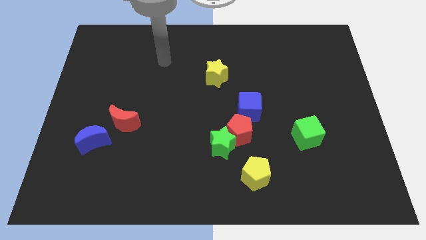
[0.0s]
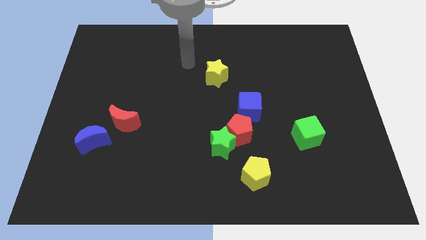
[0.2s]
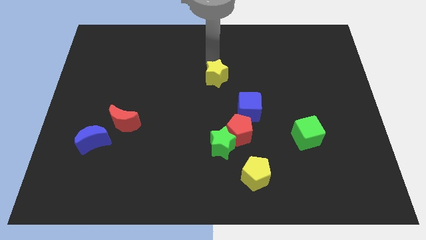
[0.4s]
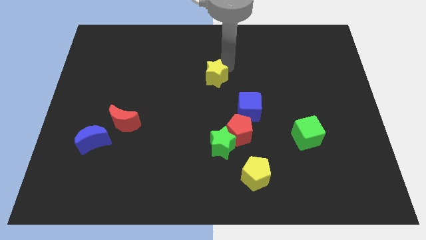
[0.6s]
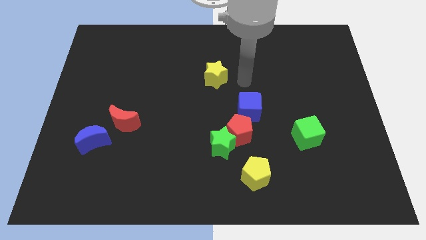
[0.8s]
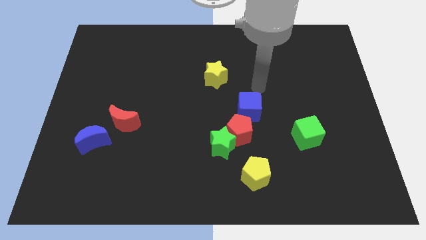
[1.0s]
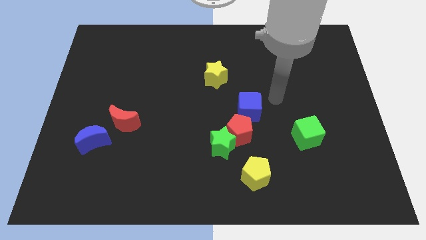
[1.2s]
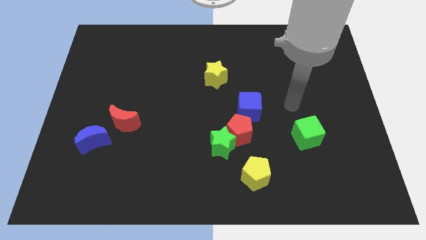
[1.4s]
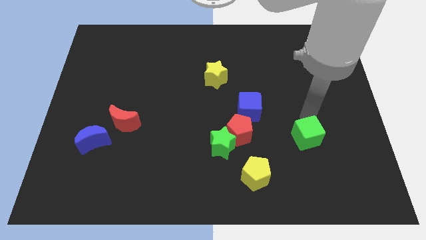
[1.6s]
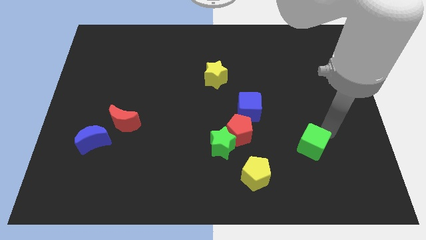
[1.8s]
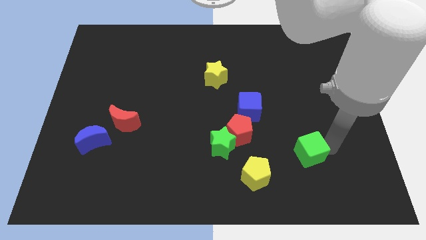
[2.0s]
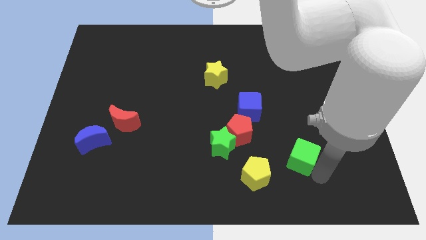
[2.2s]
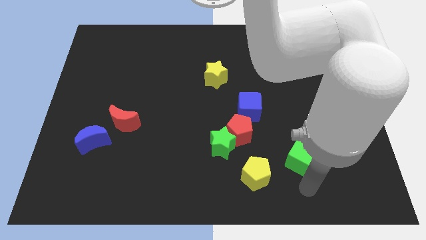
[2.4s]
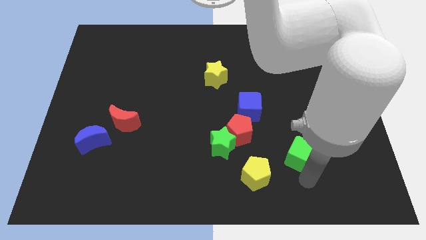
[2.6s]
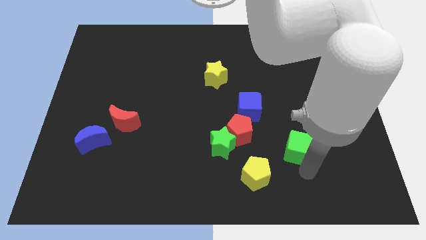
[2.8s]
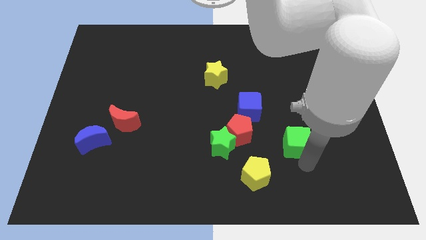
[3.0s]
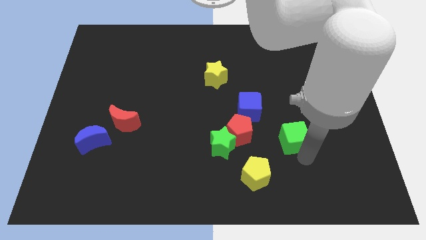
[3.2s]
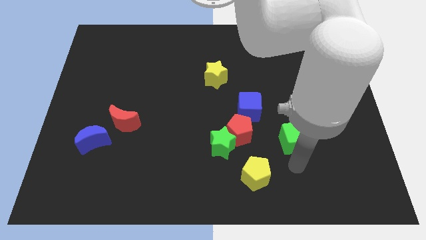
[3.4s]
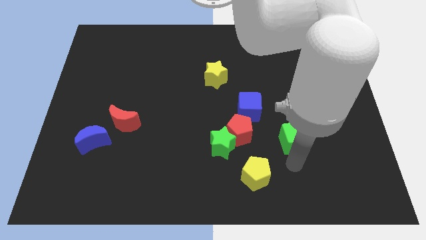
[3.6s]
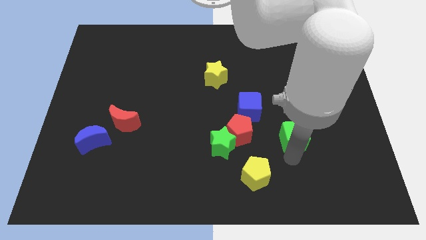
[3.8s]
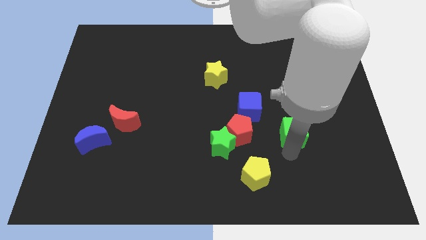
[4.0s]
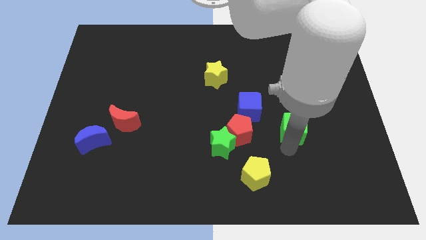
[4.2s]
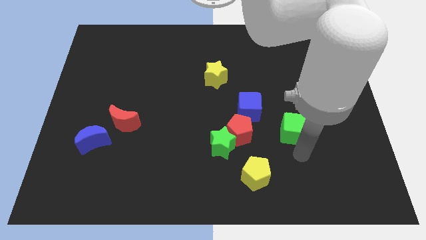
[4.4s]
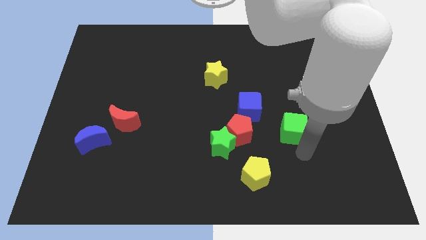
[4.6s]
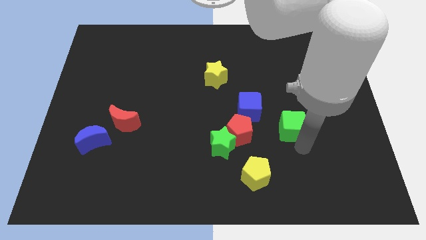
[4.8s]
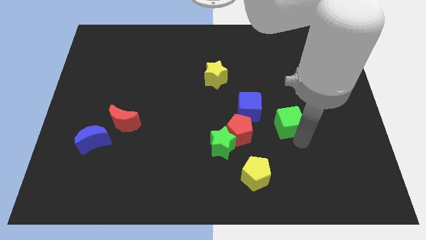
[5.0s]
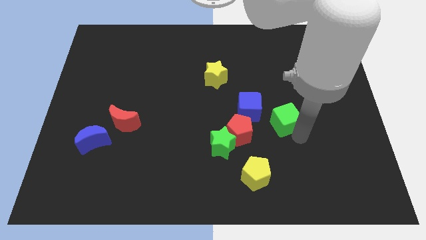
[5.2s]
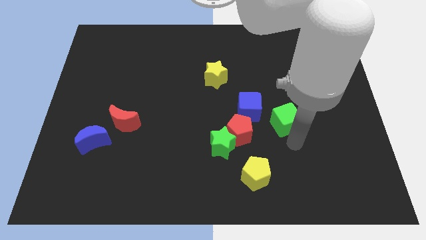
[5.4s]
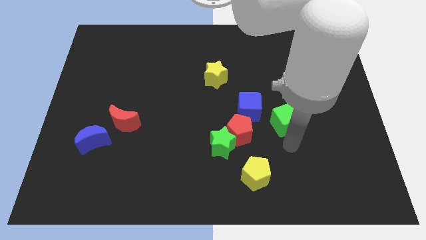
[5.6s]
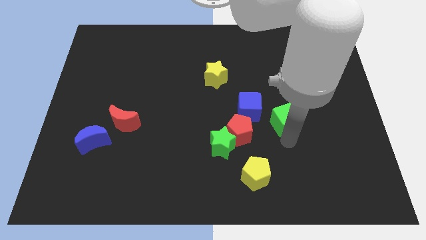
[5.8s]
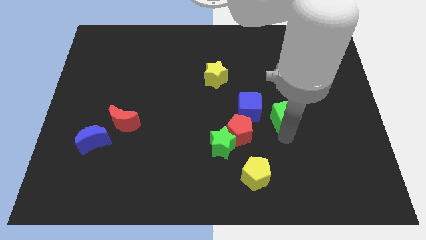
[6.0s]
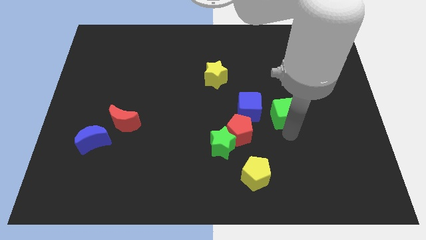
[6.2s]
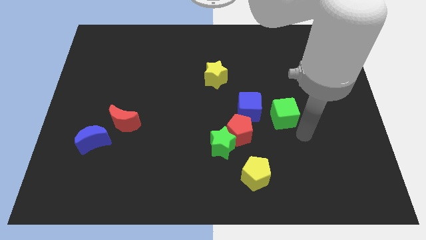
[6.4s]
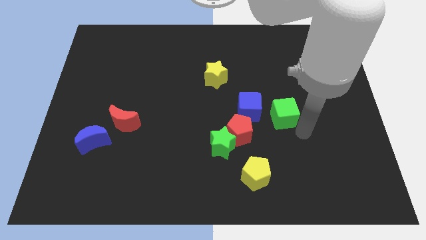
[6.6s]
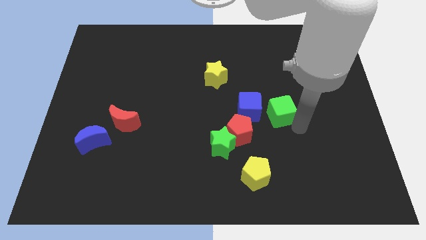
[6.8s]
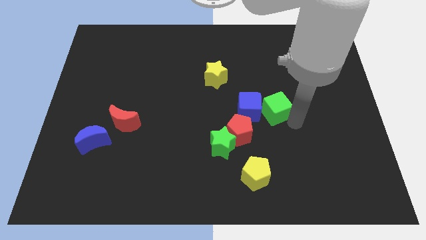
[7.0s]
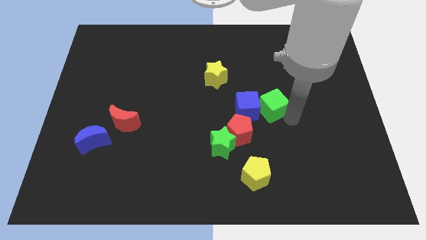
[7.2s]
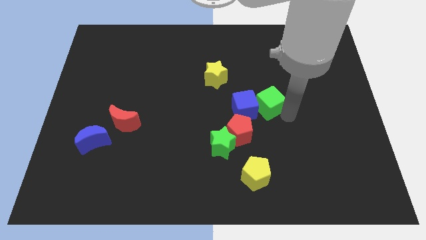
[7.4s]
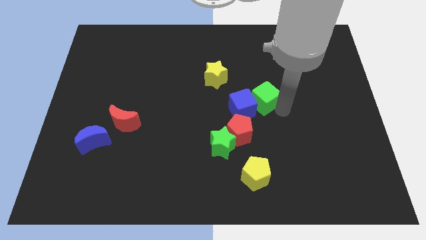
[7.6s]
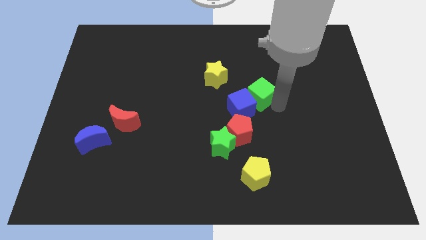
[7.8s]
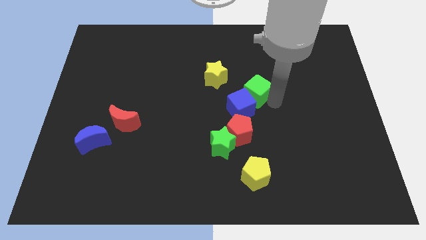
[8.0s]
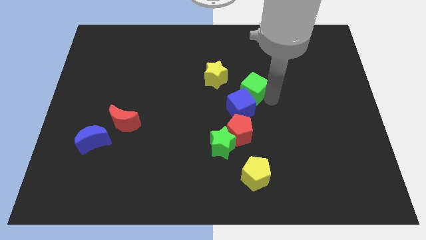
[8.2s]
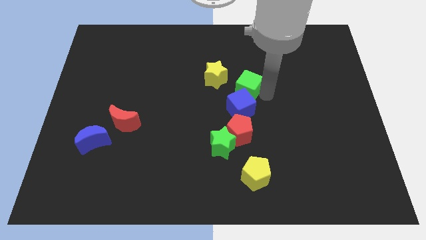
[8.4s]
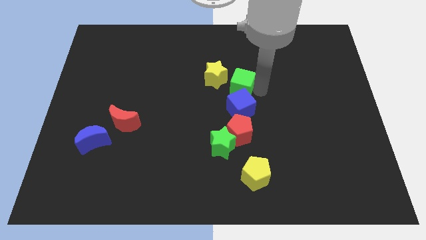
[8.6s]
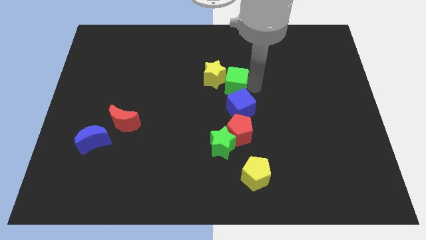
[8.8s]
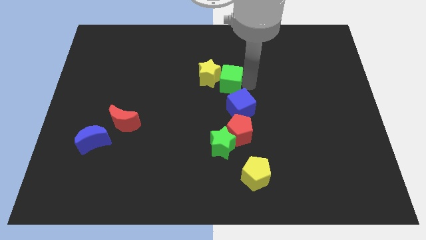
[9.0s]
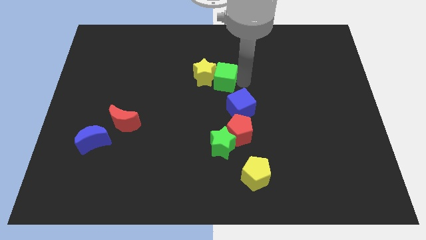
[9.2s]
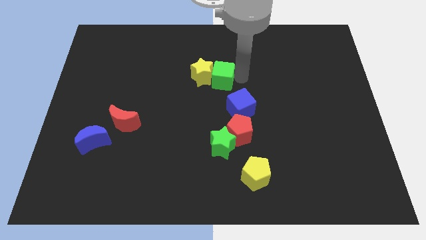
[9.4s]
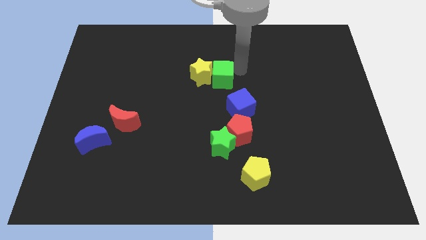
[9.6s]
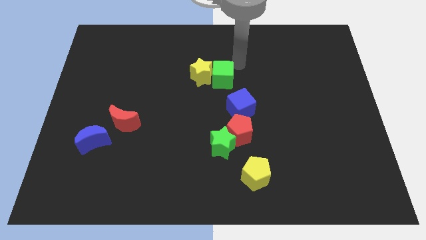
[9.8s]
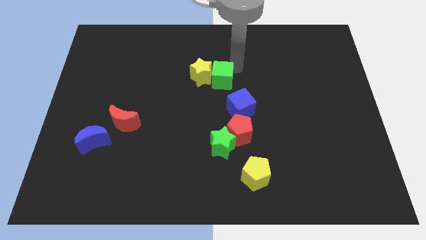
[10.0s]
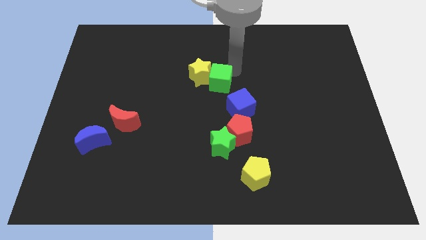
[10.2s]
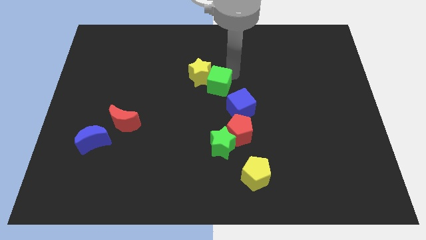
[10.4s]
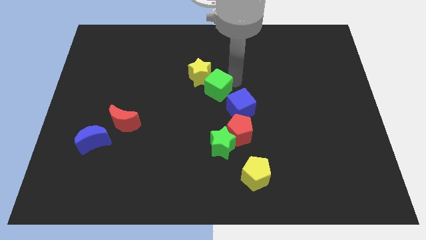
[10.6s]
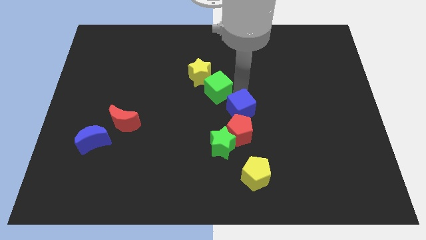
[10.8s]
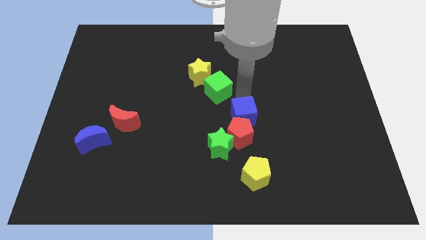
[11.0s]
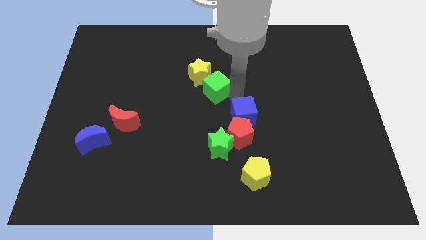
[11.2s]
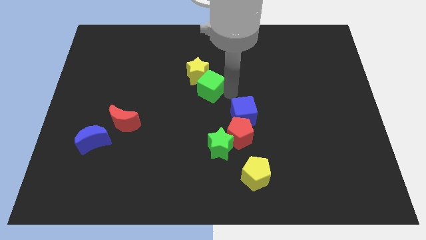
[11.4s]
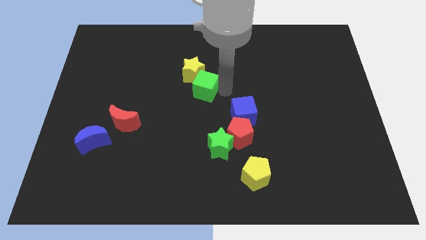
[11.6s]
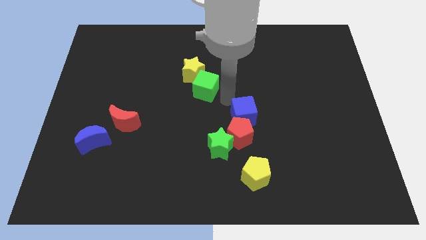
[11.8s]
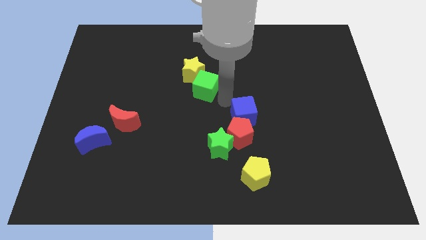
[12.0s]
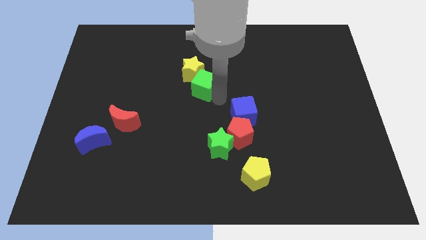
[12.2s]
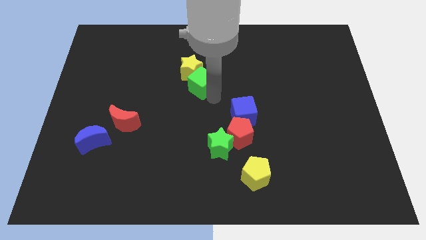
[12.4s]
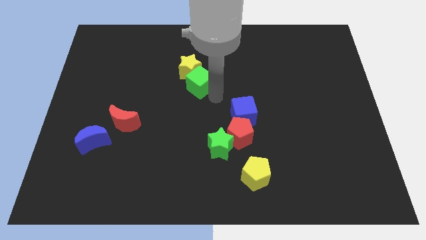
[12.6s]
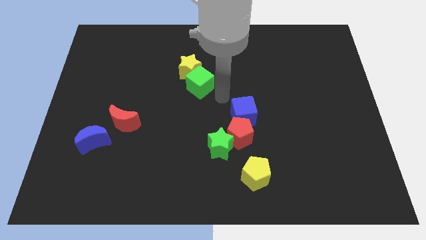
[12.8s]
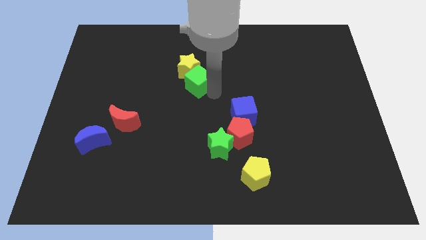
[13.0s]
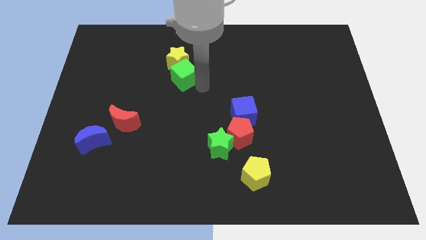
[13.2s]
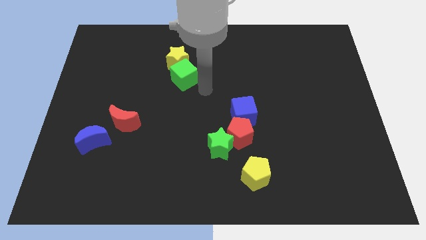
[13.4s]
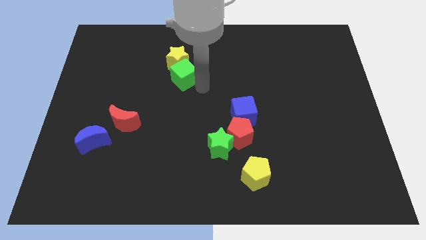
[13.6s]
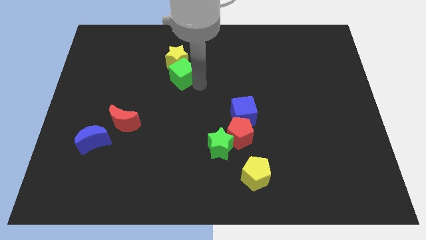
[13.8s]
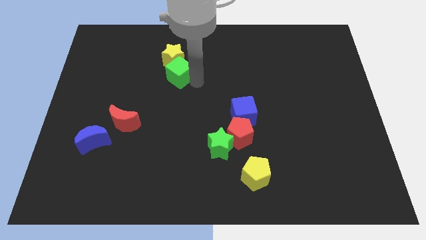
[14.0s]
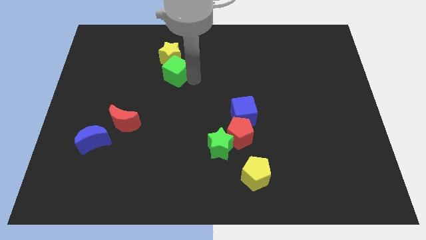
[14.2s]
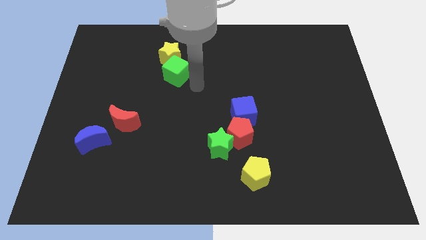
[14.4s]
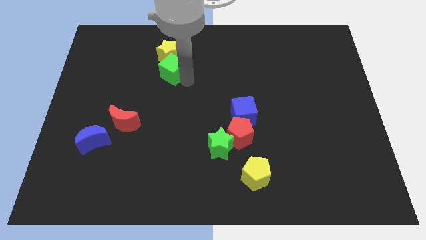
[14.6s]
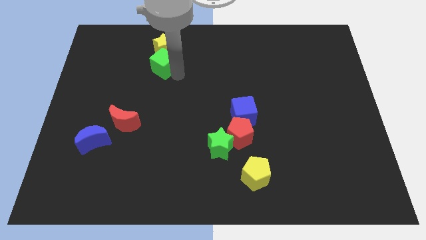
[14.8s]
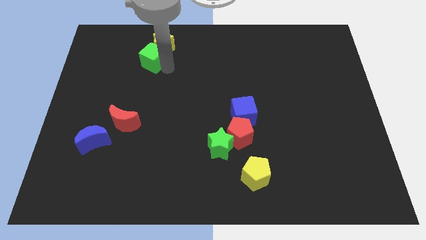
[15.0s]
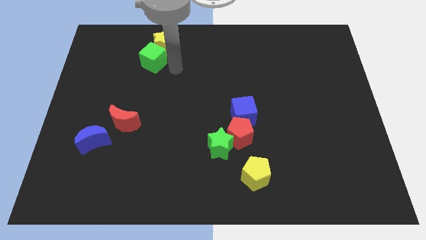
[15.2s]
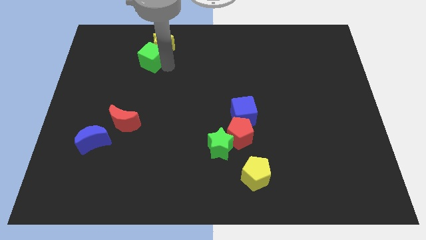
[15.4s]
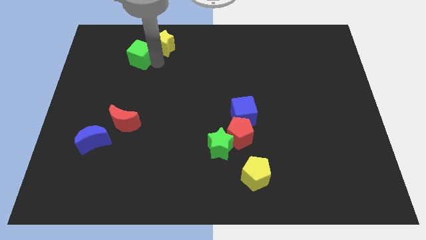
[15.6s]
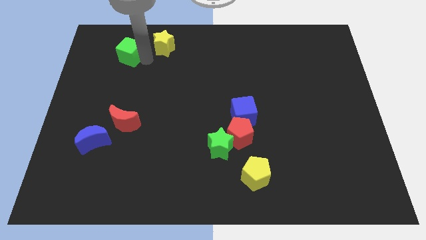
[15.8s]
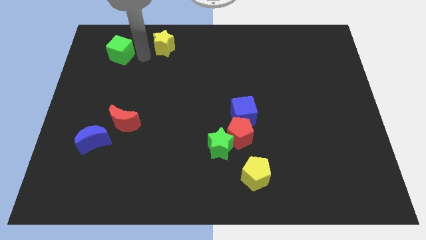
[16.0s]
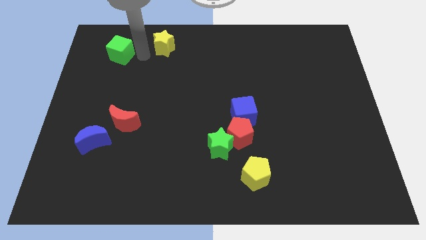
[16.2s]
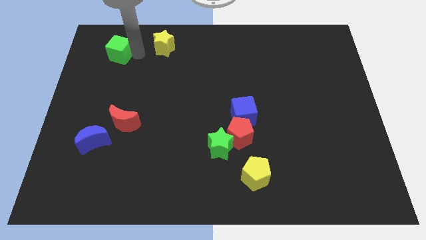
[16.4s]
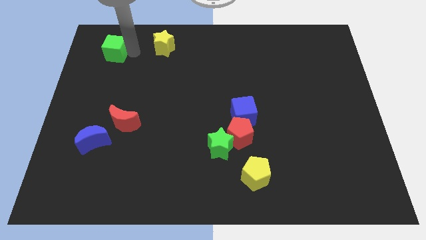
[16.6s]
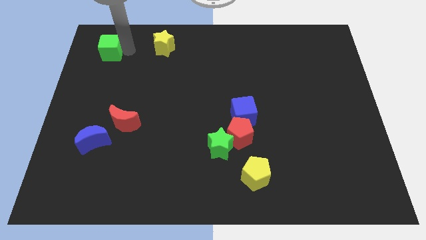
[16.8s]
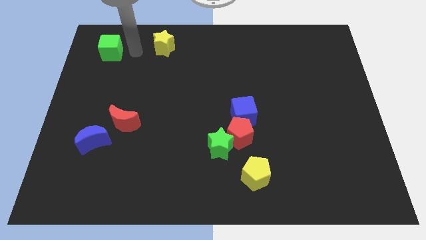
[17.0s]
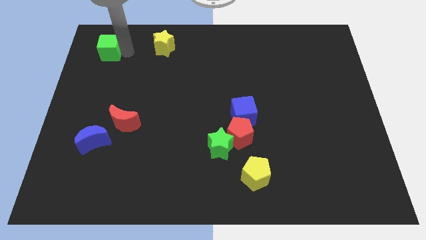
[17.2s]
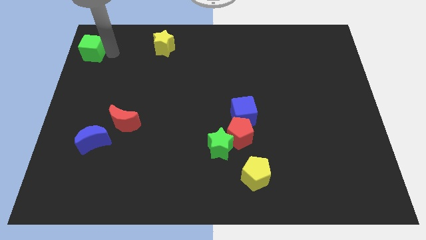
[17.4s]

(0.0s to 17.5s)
move the green cube to the upper left corner
